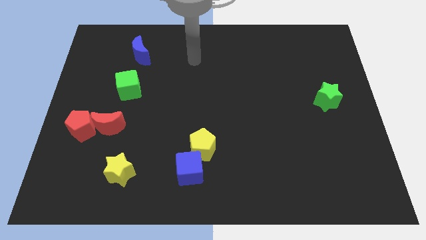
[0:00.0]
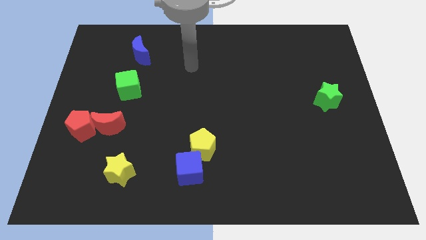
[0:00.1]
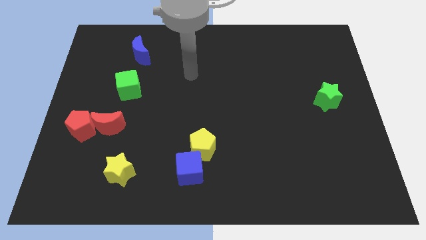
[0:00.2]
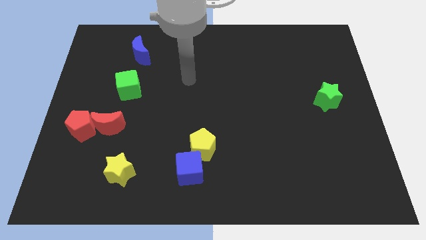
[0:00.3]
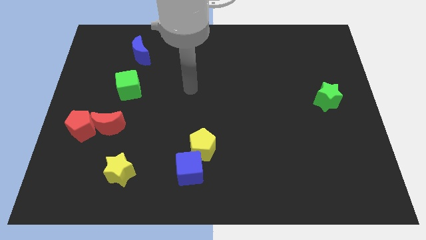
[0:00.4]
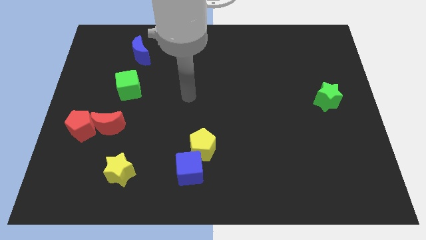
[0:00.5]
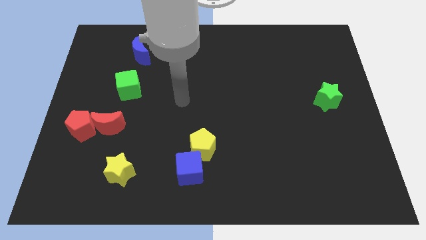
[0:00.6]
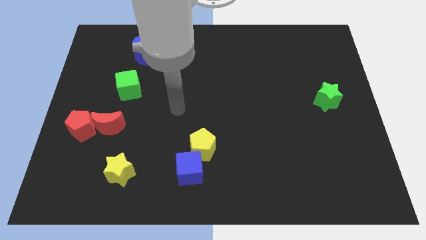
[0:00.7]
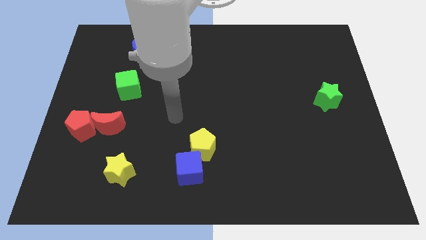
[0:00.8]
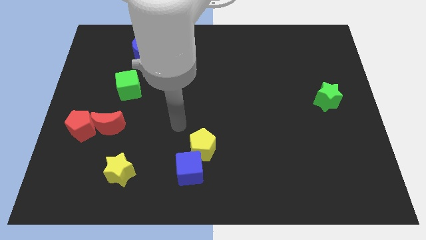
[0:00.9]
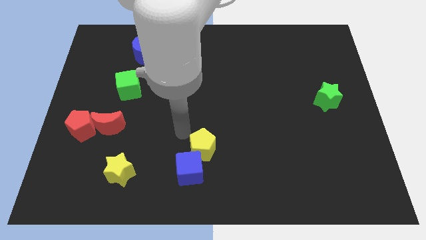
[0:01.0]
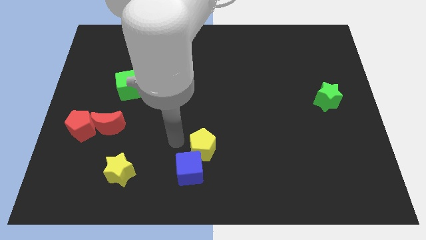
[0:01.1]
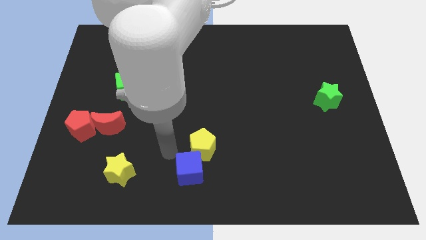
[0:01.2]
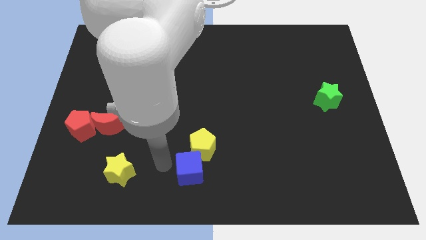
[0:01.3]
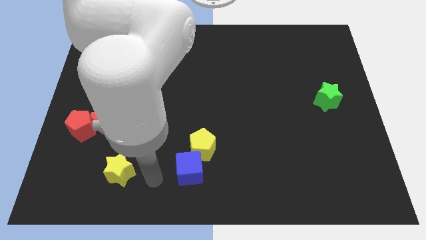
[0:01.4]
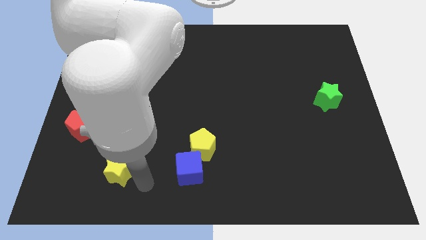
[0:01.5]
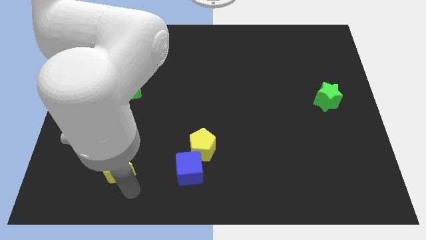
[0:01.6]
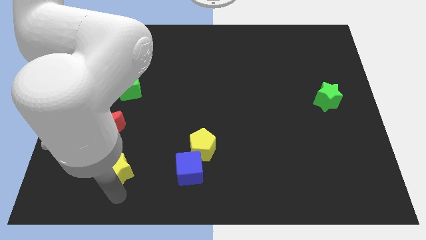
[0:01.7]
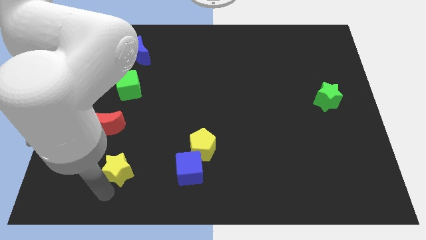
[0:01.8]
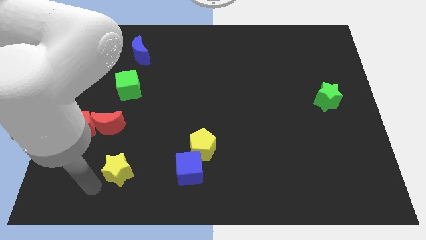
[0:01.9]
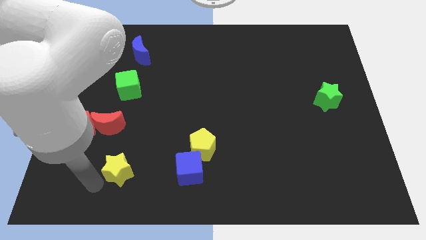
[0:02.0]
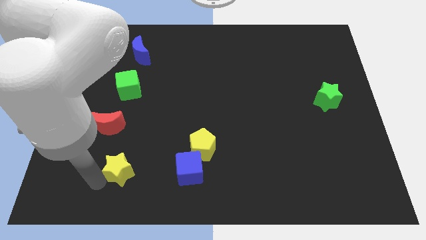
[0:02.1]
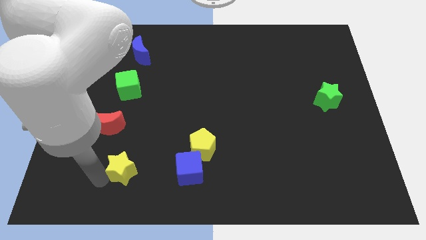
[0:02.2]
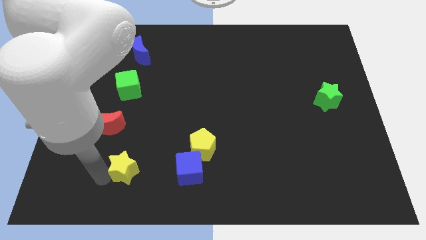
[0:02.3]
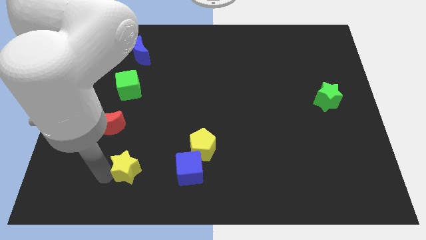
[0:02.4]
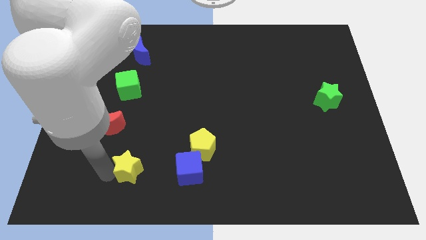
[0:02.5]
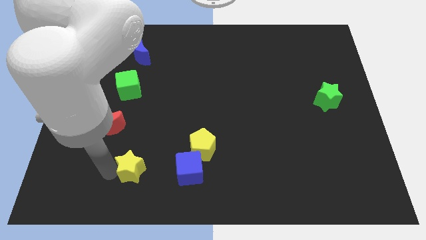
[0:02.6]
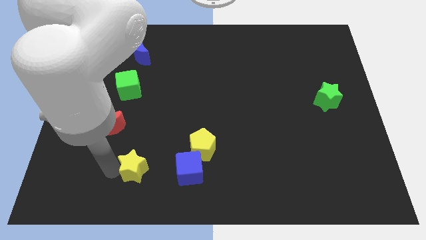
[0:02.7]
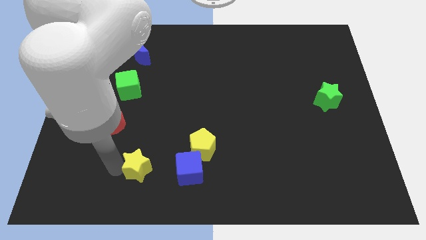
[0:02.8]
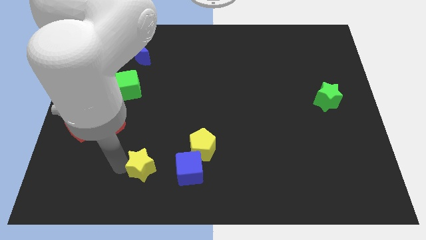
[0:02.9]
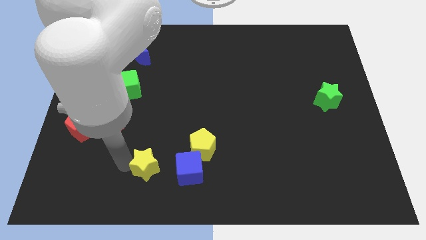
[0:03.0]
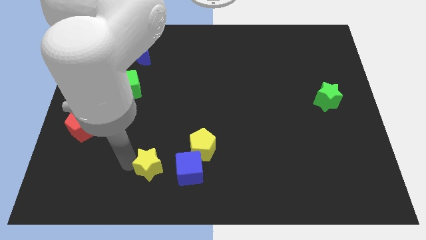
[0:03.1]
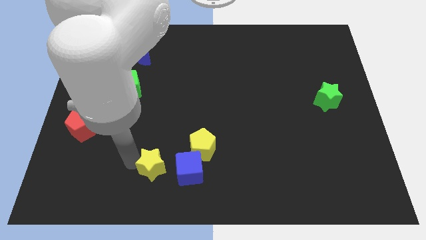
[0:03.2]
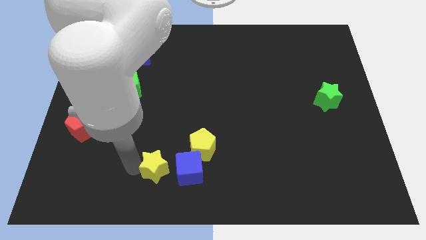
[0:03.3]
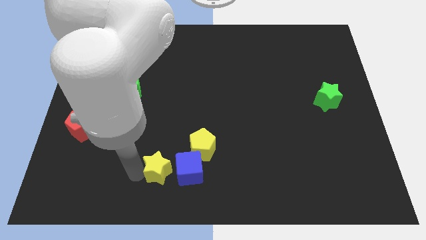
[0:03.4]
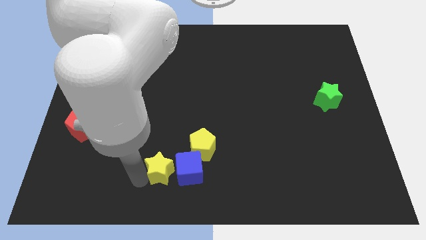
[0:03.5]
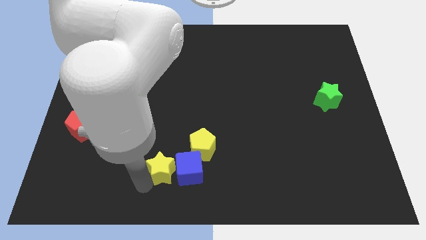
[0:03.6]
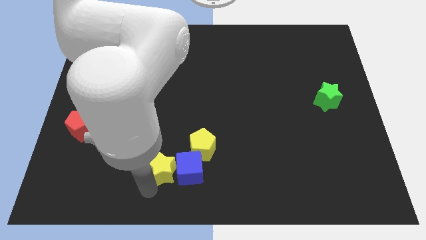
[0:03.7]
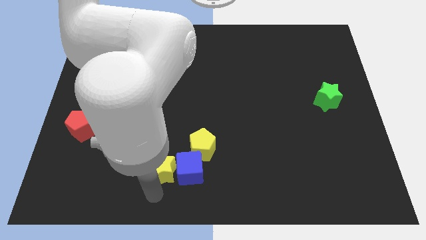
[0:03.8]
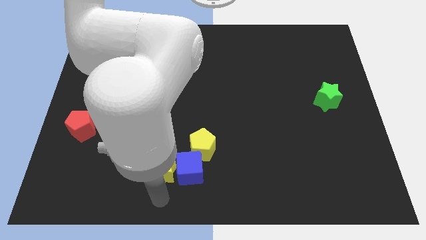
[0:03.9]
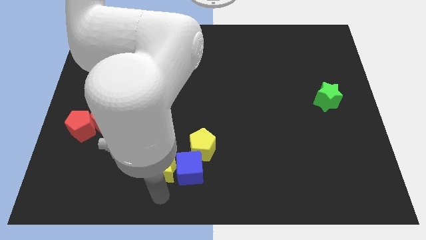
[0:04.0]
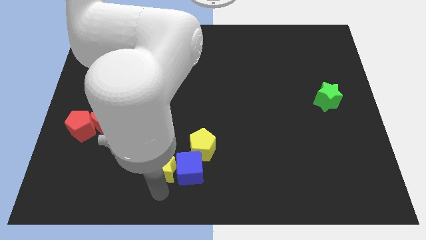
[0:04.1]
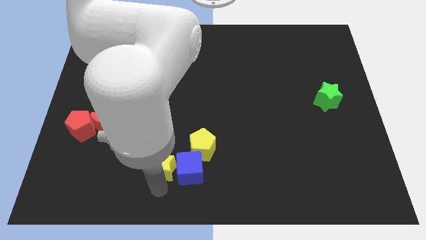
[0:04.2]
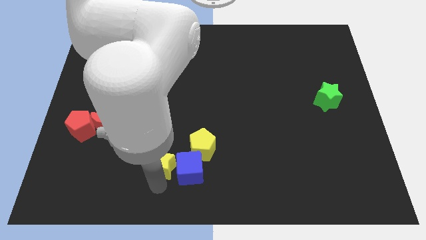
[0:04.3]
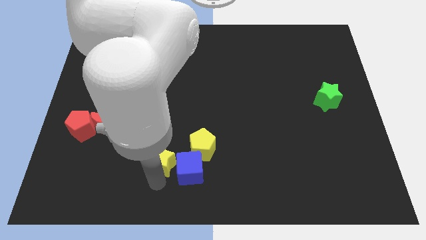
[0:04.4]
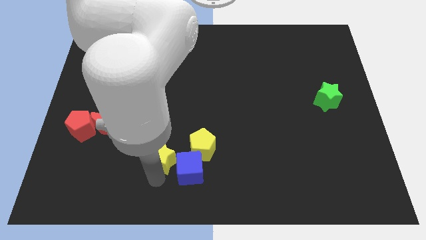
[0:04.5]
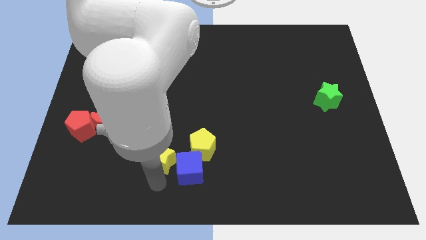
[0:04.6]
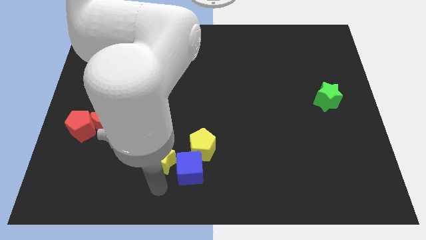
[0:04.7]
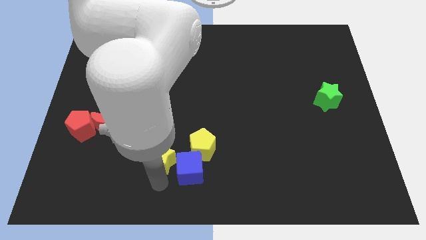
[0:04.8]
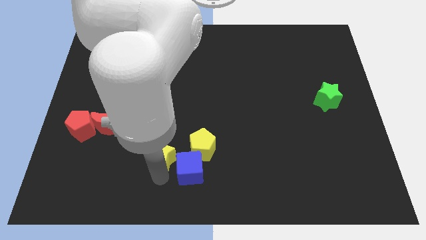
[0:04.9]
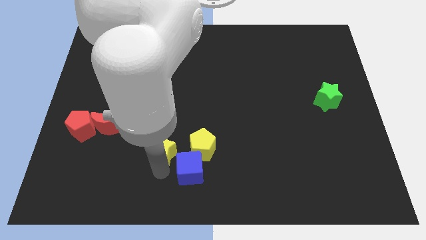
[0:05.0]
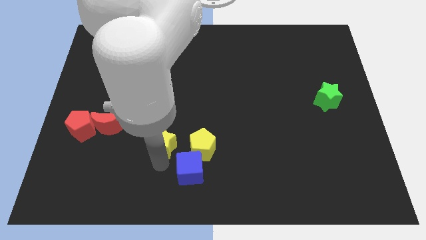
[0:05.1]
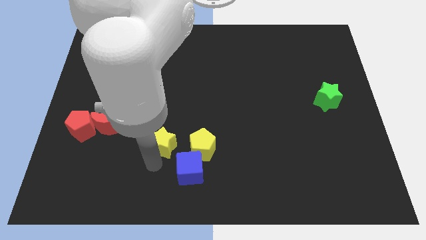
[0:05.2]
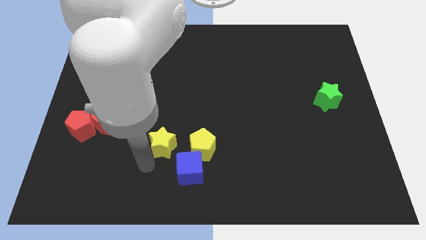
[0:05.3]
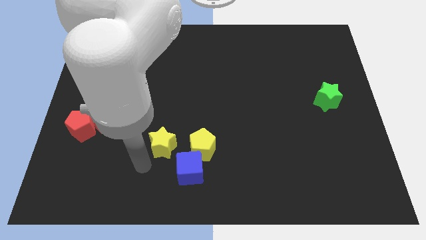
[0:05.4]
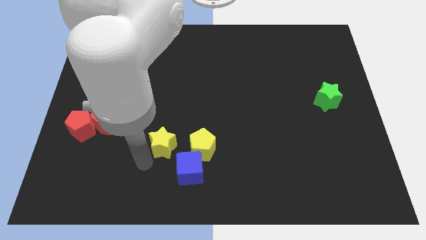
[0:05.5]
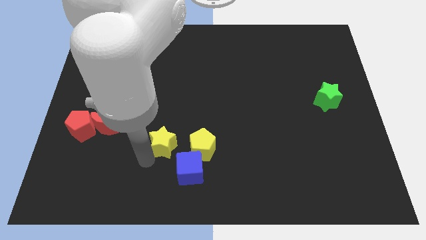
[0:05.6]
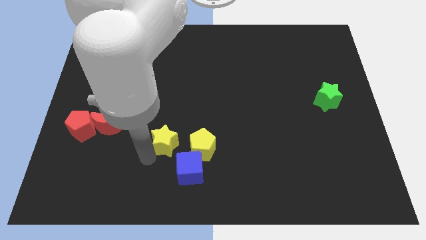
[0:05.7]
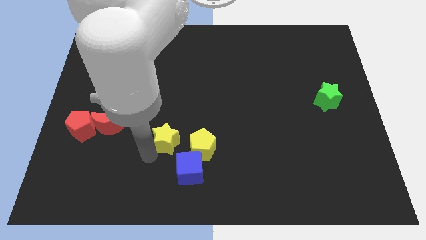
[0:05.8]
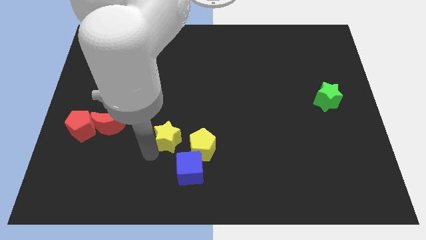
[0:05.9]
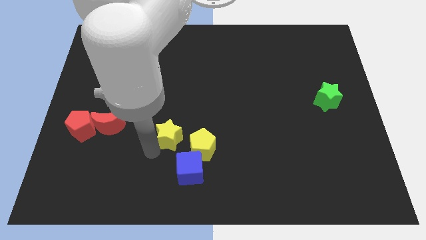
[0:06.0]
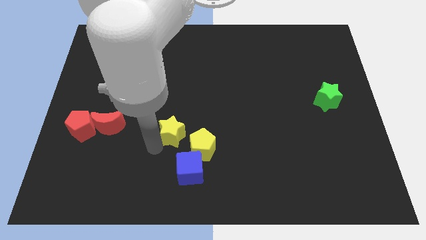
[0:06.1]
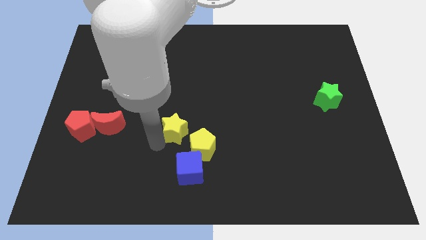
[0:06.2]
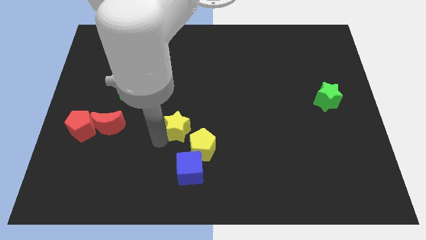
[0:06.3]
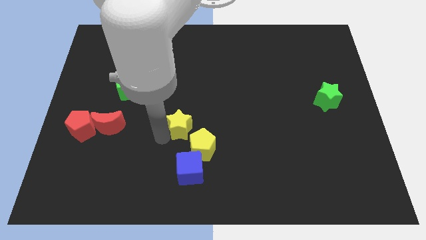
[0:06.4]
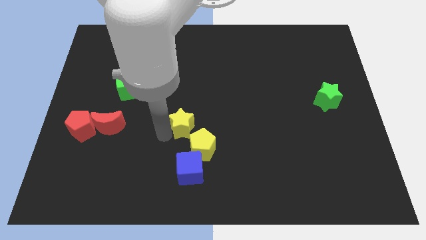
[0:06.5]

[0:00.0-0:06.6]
put the yellow star to the top side of the yellow pentagon

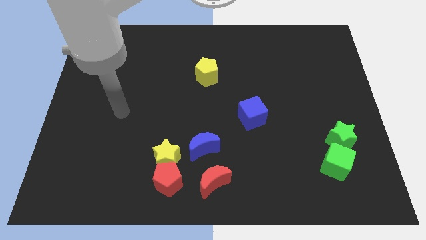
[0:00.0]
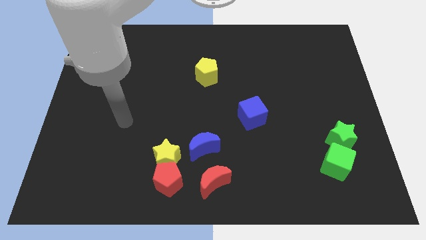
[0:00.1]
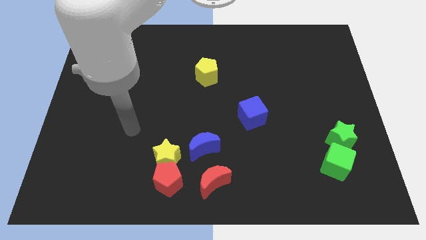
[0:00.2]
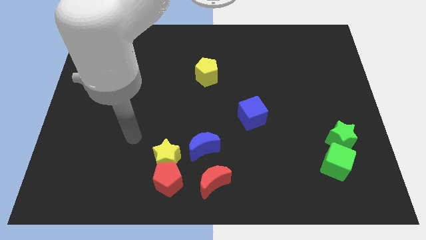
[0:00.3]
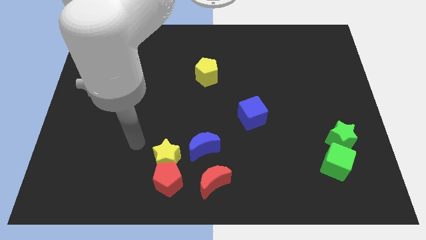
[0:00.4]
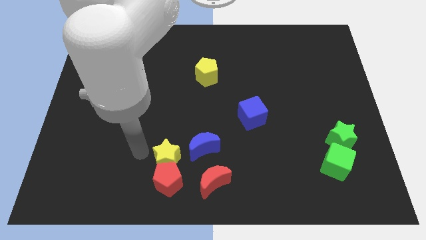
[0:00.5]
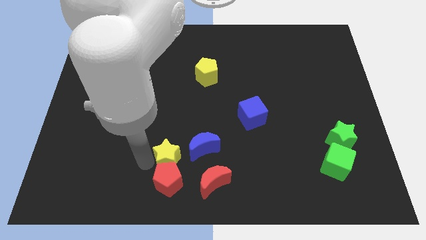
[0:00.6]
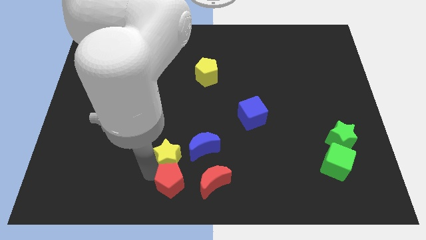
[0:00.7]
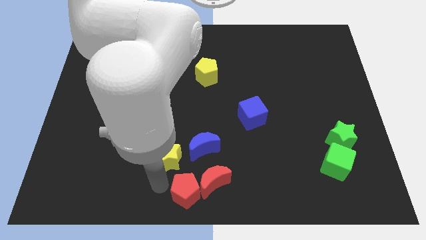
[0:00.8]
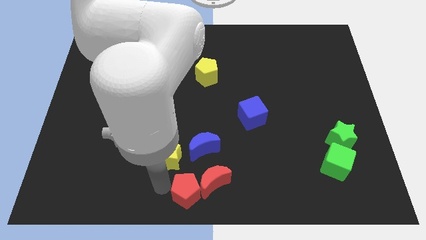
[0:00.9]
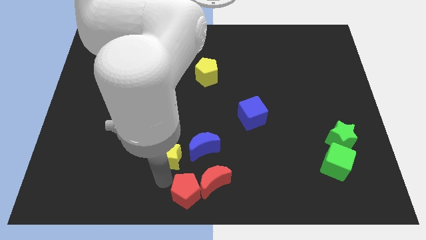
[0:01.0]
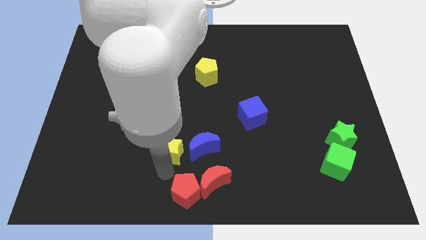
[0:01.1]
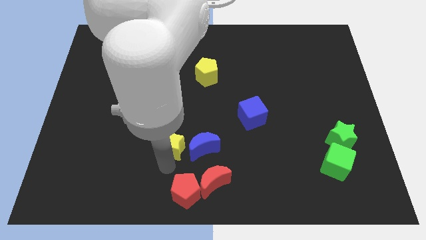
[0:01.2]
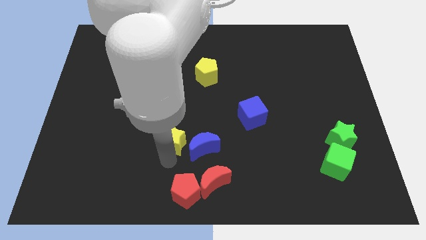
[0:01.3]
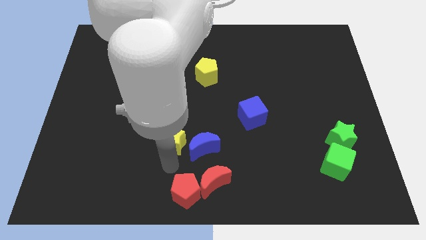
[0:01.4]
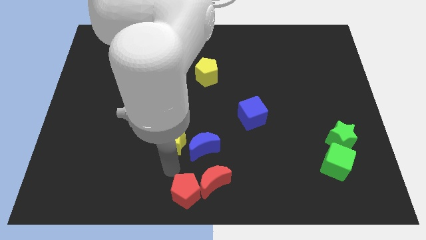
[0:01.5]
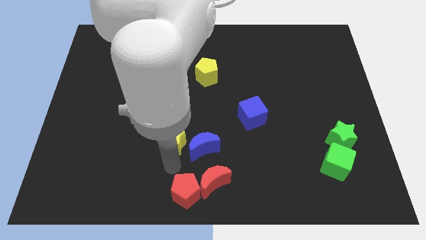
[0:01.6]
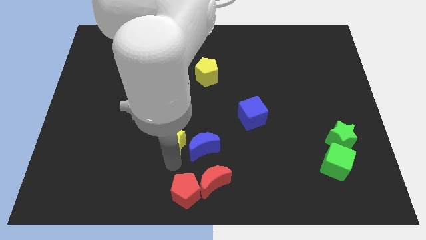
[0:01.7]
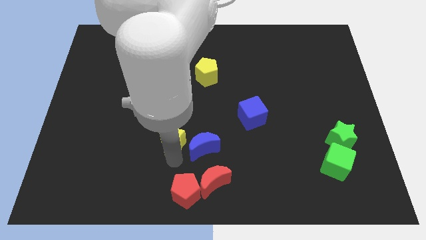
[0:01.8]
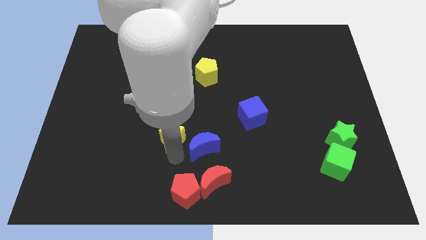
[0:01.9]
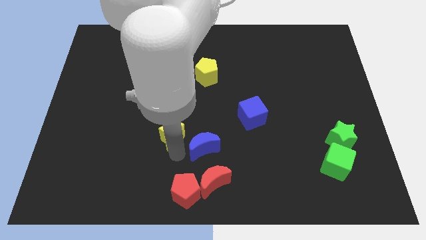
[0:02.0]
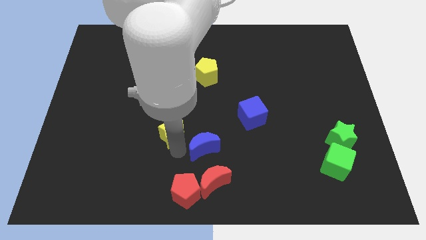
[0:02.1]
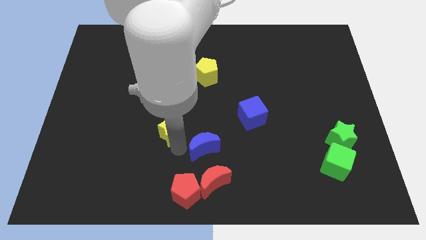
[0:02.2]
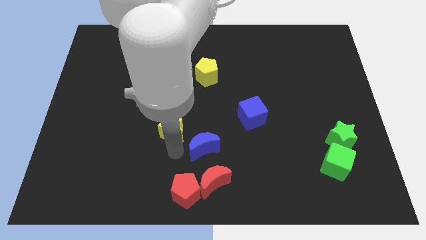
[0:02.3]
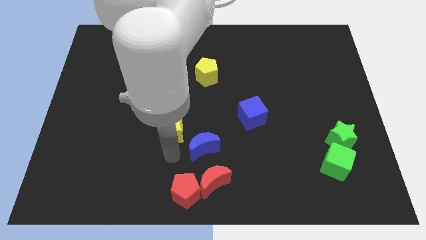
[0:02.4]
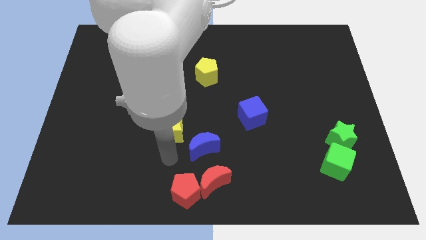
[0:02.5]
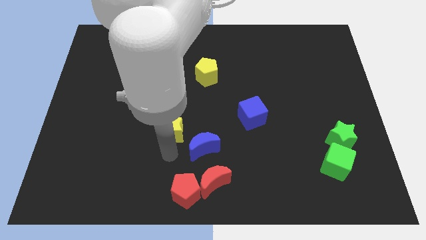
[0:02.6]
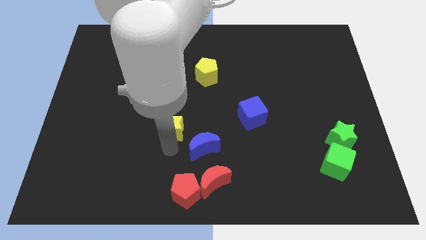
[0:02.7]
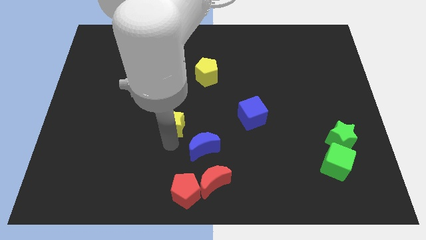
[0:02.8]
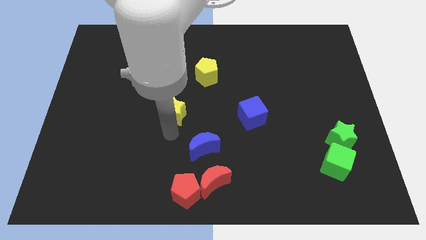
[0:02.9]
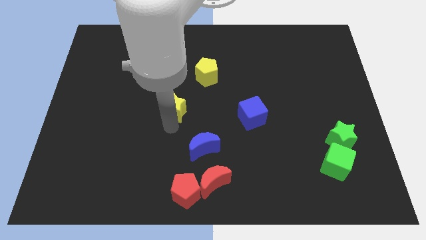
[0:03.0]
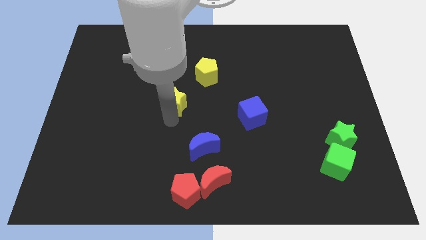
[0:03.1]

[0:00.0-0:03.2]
move the yellow star diagonally down and to the left of the yellow pentagon
